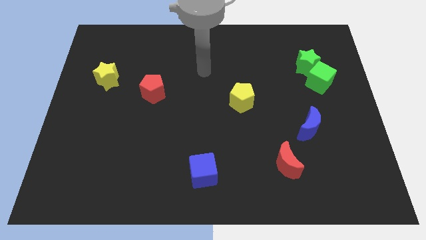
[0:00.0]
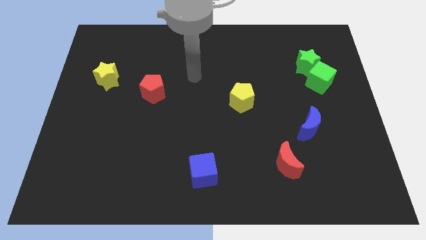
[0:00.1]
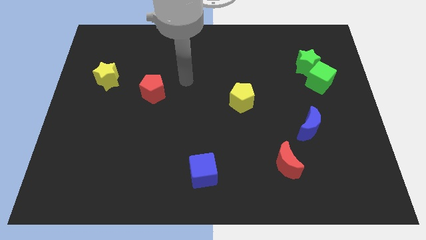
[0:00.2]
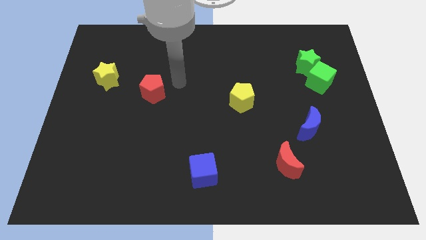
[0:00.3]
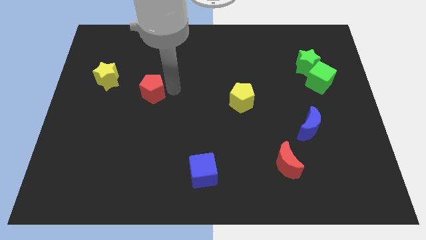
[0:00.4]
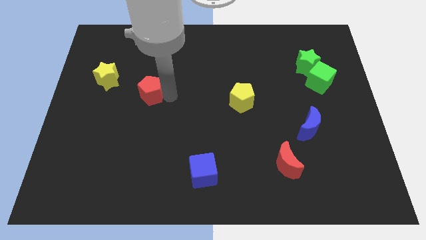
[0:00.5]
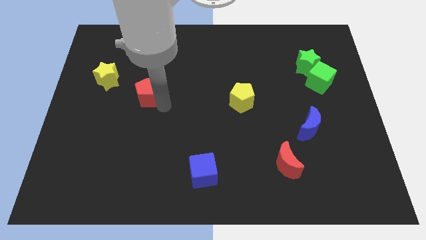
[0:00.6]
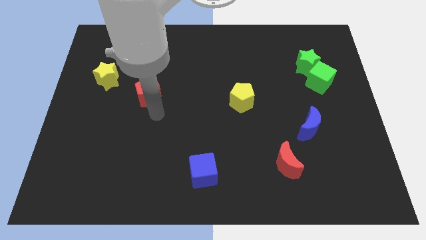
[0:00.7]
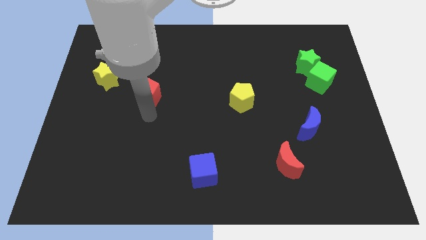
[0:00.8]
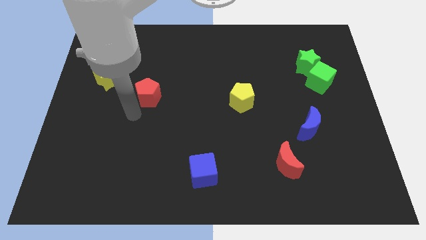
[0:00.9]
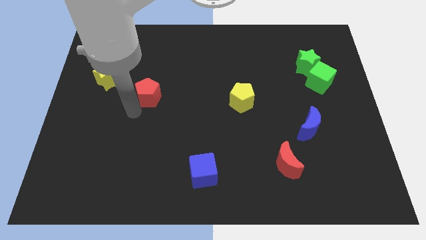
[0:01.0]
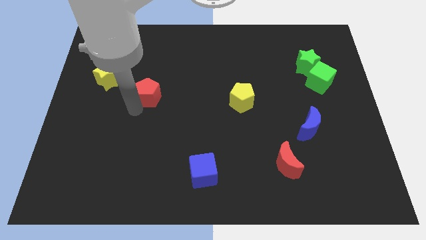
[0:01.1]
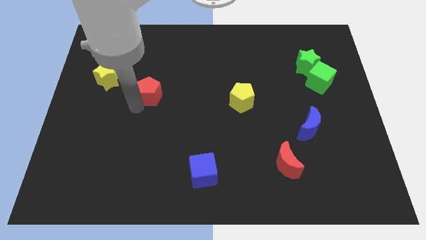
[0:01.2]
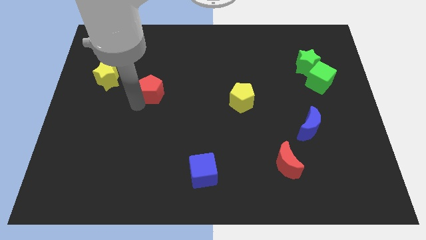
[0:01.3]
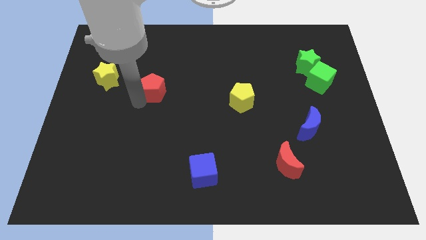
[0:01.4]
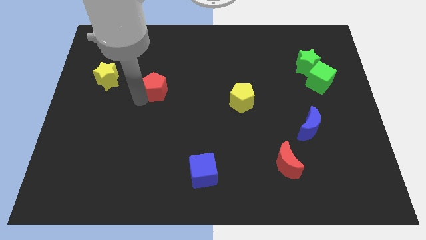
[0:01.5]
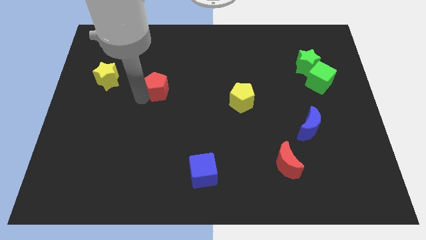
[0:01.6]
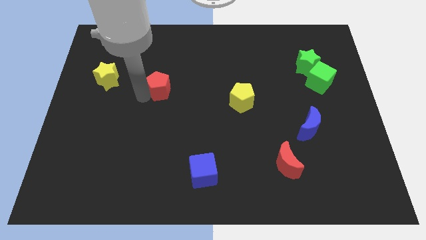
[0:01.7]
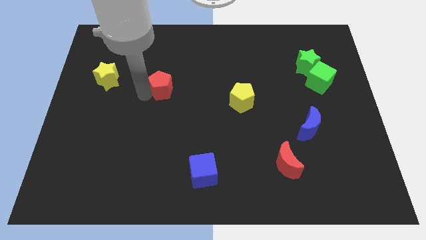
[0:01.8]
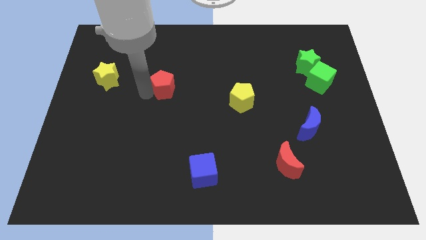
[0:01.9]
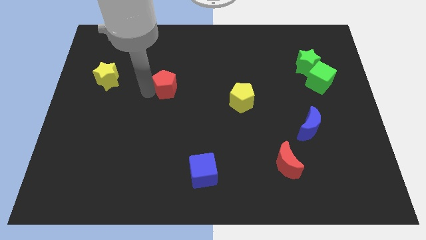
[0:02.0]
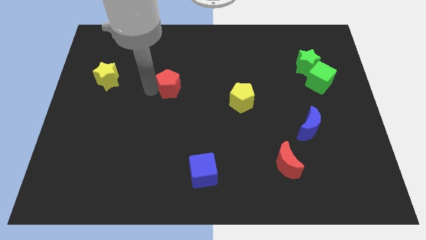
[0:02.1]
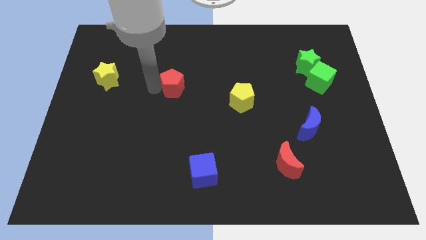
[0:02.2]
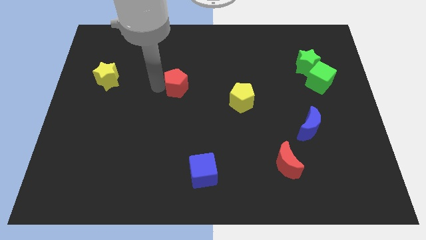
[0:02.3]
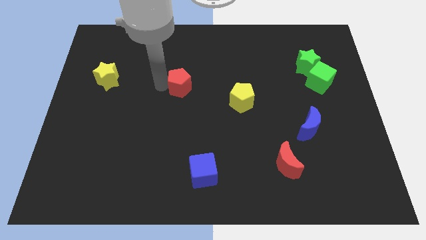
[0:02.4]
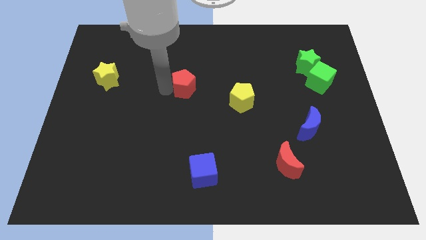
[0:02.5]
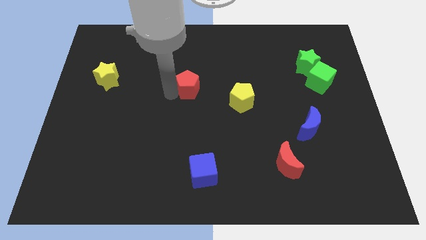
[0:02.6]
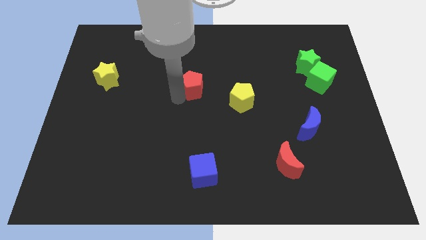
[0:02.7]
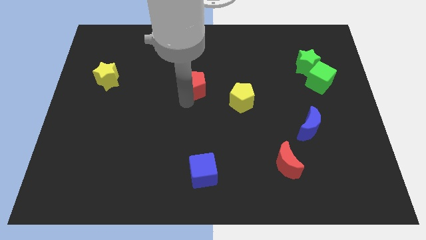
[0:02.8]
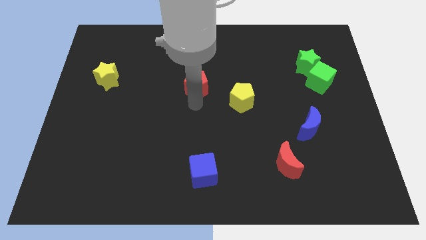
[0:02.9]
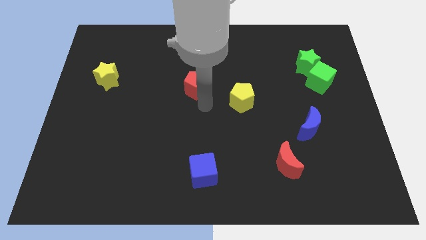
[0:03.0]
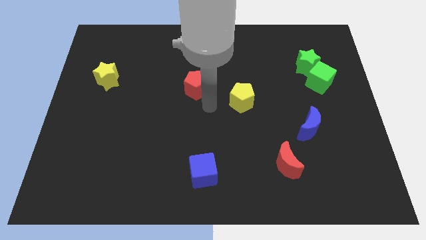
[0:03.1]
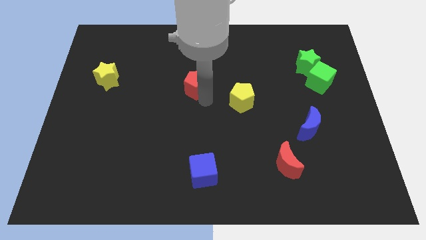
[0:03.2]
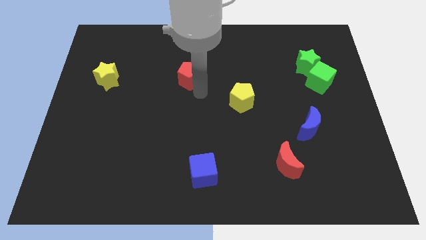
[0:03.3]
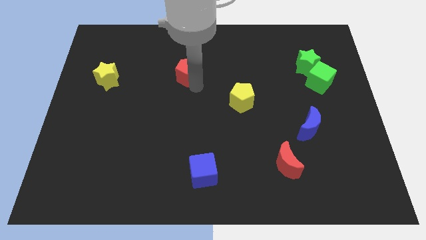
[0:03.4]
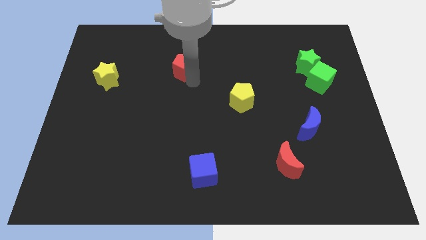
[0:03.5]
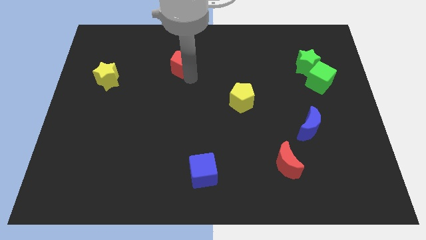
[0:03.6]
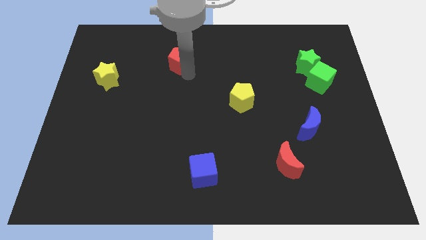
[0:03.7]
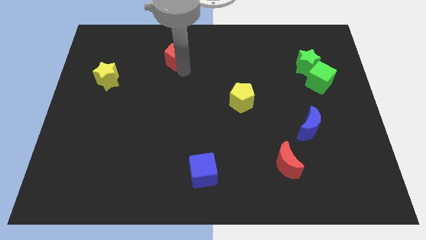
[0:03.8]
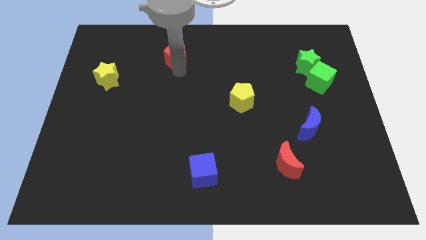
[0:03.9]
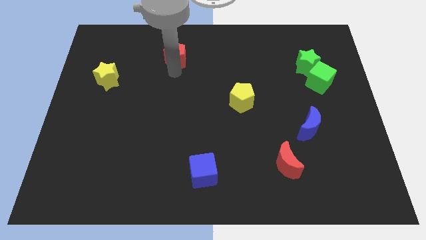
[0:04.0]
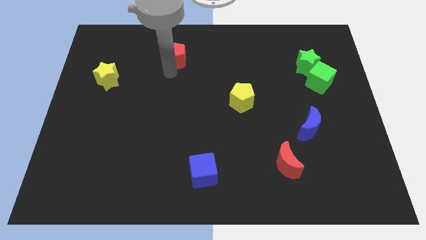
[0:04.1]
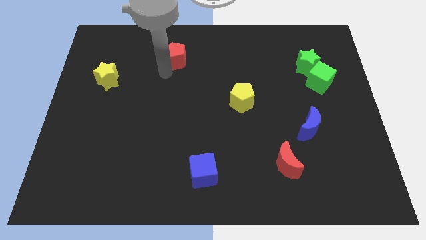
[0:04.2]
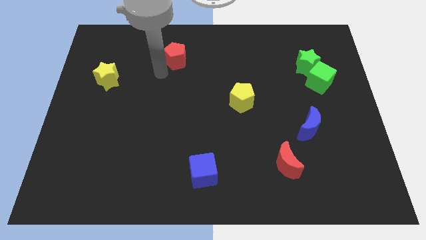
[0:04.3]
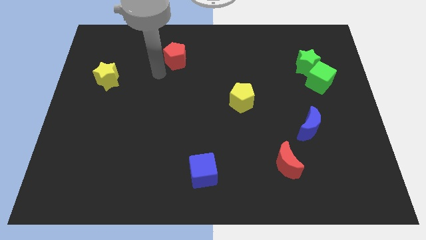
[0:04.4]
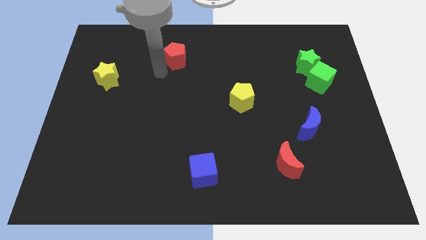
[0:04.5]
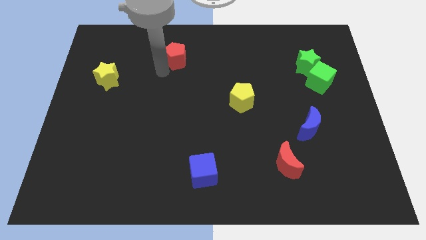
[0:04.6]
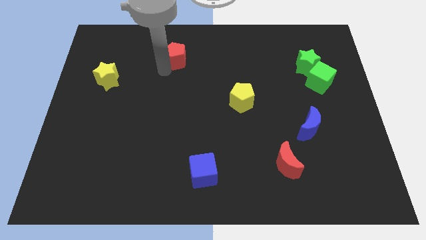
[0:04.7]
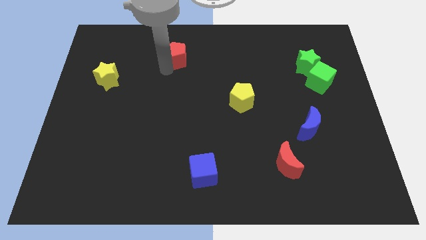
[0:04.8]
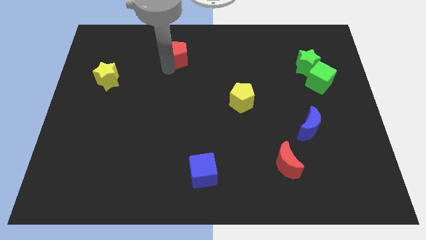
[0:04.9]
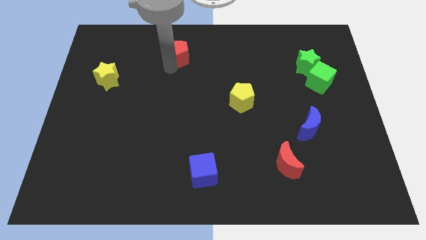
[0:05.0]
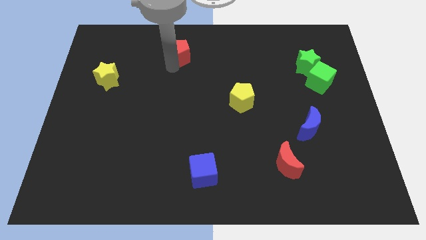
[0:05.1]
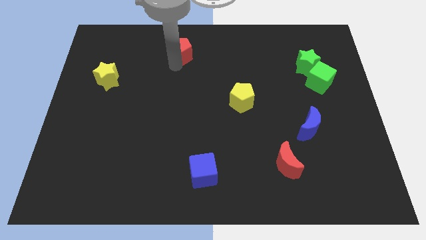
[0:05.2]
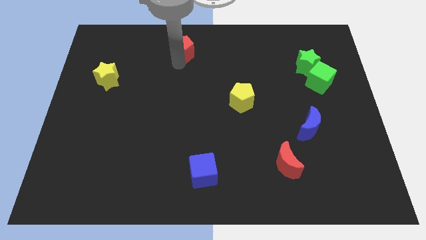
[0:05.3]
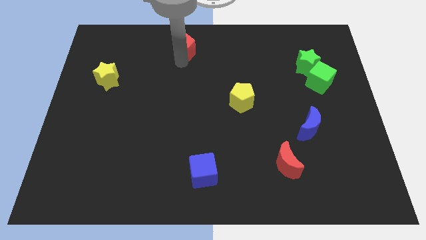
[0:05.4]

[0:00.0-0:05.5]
slide the red pentagon to the top side

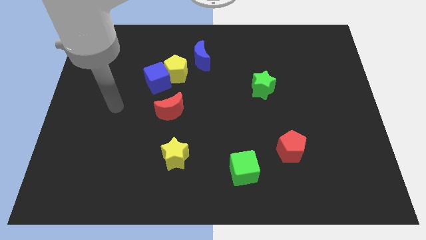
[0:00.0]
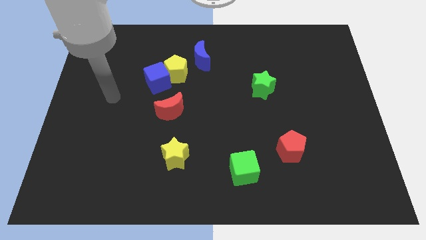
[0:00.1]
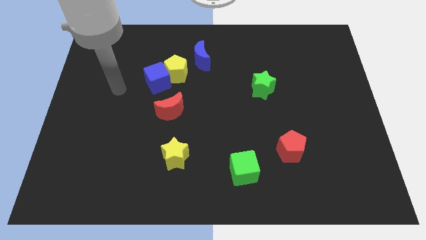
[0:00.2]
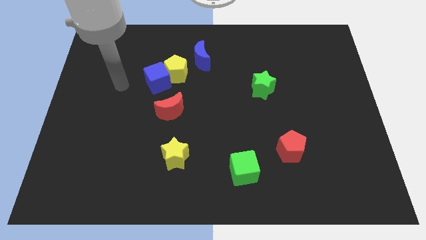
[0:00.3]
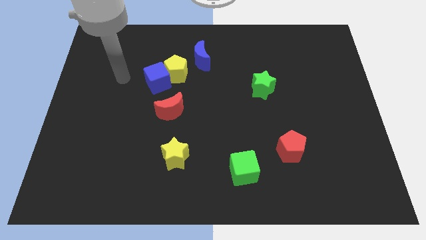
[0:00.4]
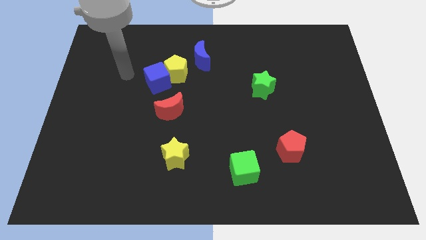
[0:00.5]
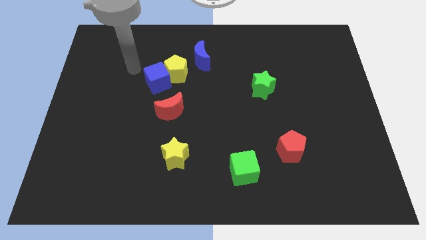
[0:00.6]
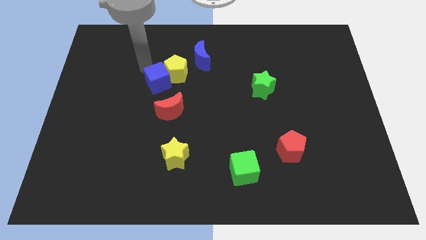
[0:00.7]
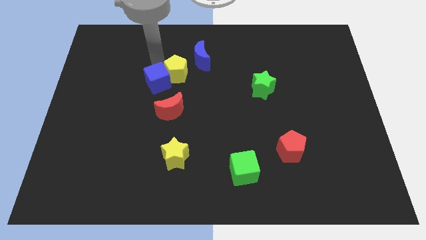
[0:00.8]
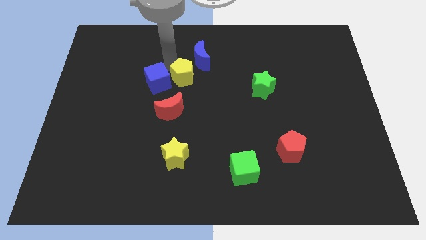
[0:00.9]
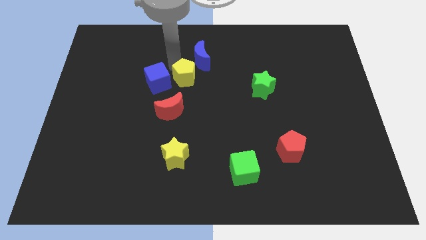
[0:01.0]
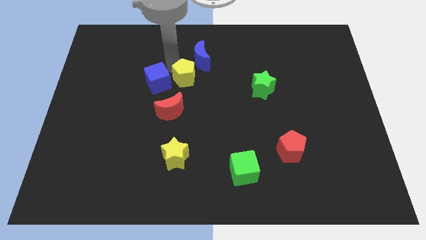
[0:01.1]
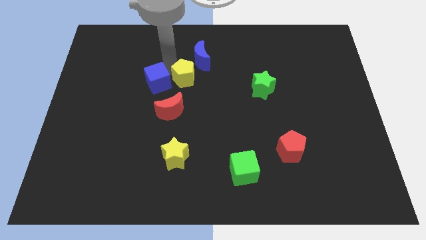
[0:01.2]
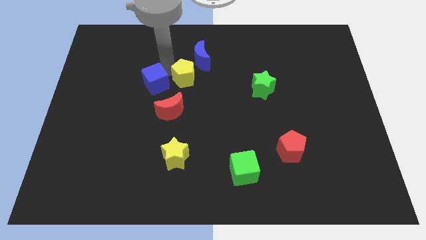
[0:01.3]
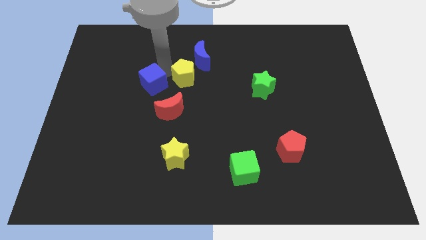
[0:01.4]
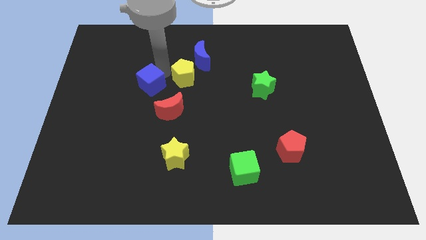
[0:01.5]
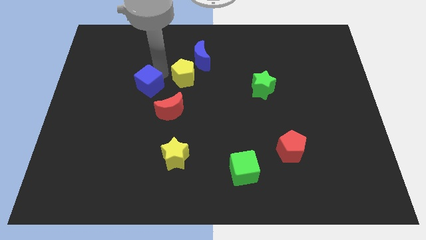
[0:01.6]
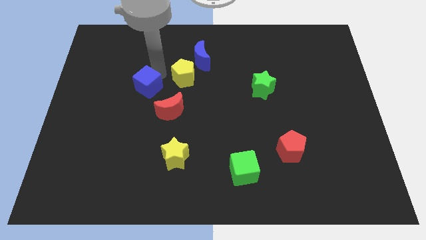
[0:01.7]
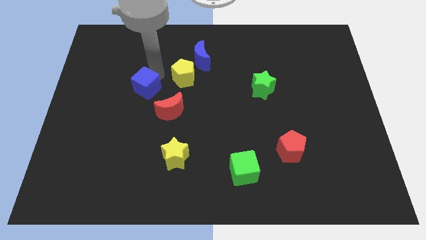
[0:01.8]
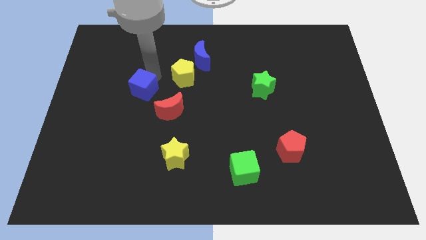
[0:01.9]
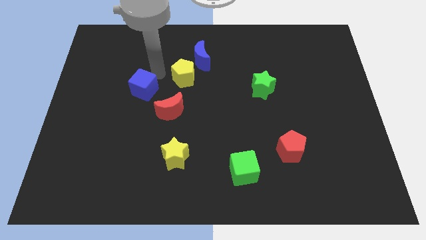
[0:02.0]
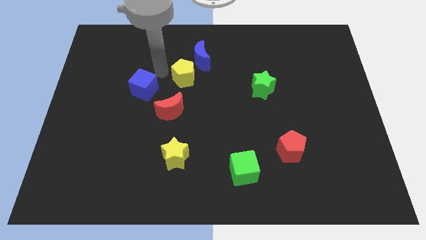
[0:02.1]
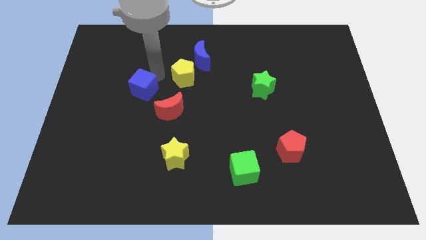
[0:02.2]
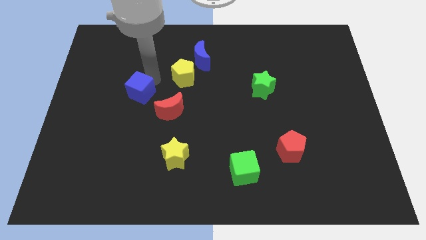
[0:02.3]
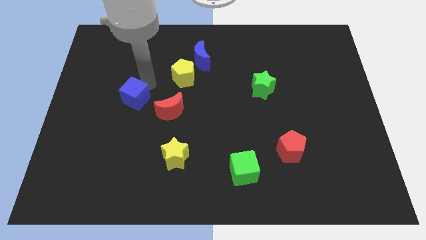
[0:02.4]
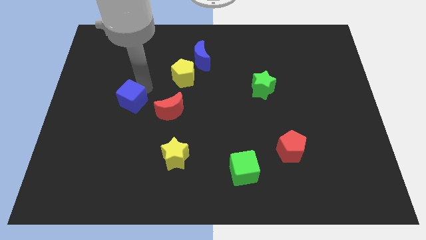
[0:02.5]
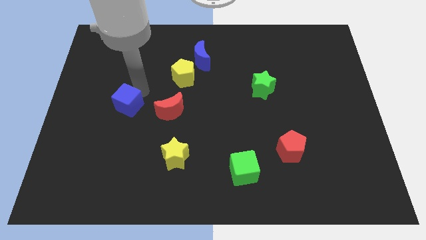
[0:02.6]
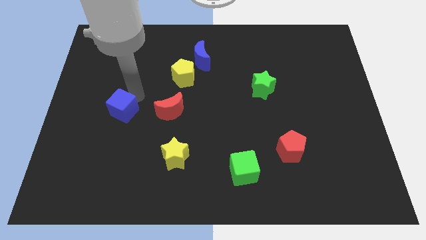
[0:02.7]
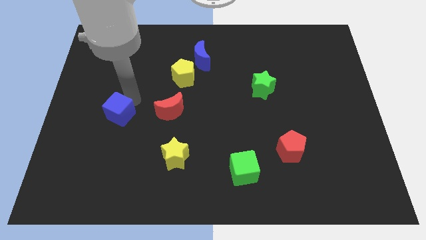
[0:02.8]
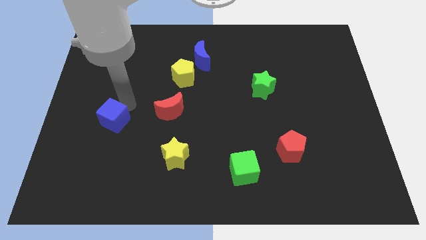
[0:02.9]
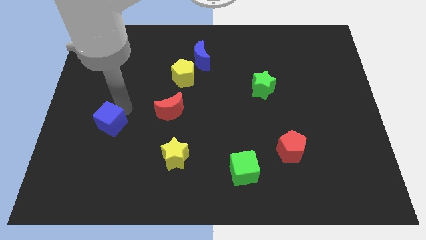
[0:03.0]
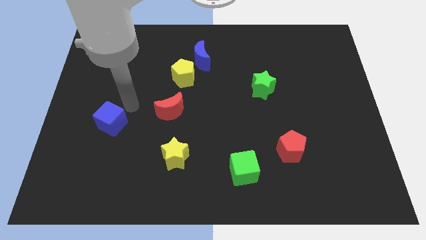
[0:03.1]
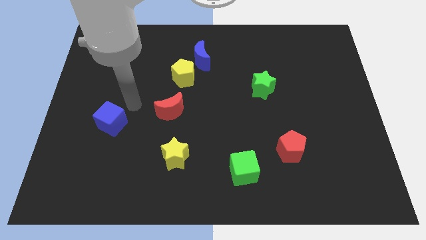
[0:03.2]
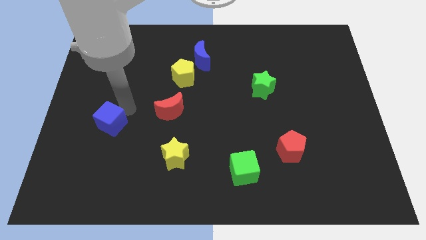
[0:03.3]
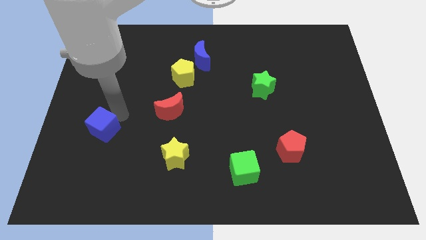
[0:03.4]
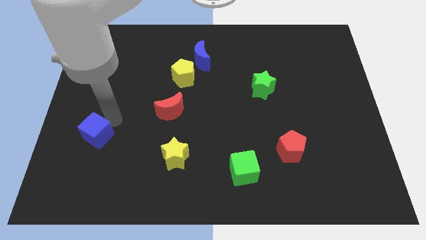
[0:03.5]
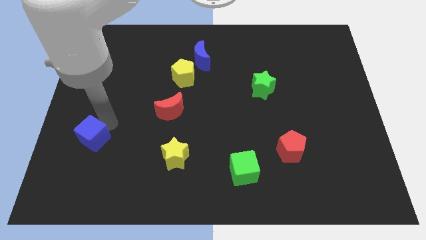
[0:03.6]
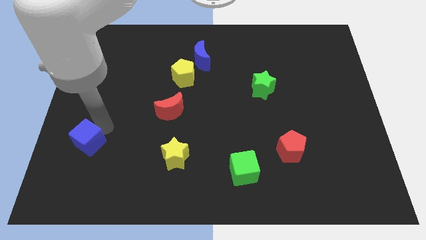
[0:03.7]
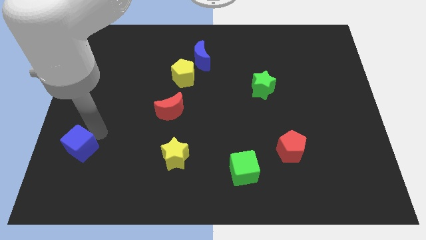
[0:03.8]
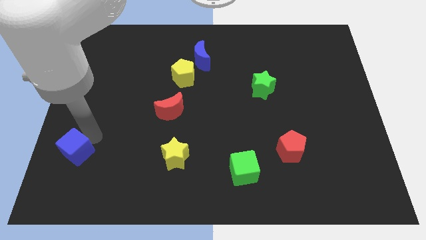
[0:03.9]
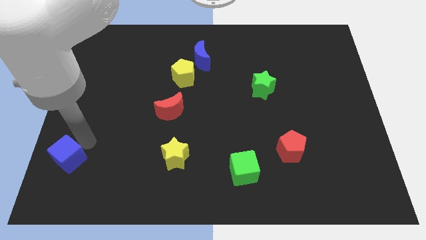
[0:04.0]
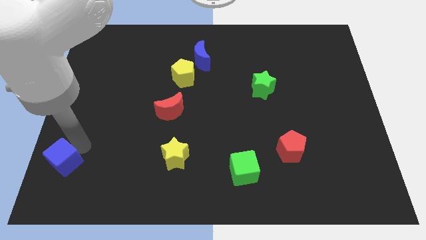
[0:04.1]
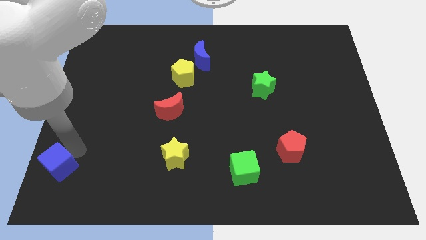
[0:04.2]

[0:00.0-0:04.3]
push the blue cube to the bottom left
